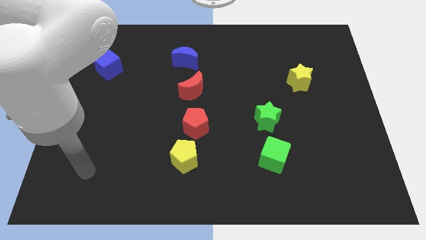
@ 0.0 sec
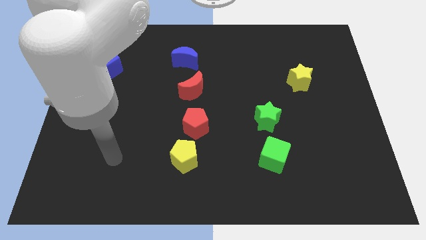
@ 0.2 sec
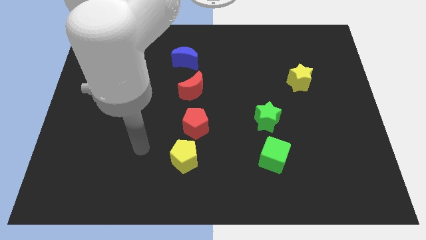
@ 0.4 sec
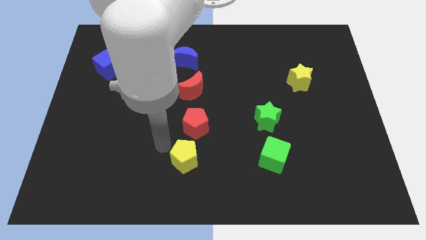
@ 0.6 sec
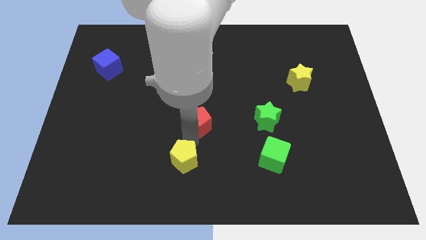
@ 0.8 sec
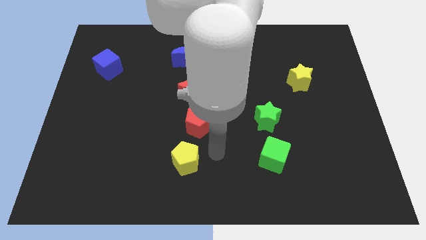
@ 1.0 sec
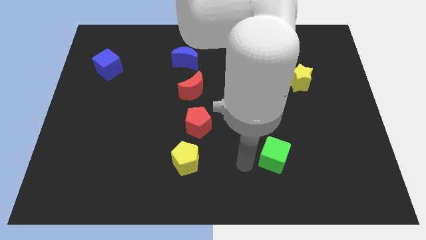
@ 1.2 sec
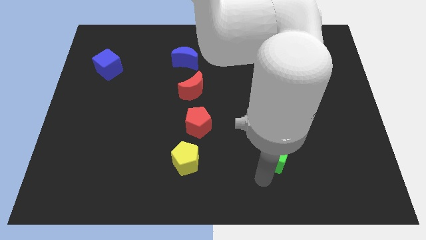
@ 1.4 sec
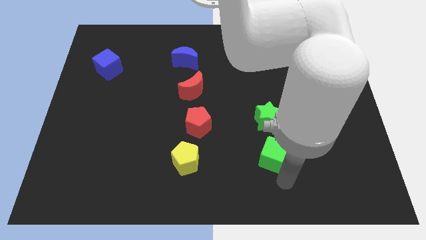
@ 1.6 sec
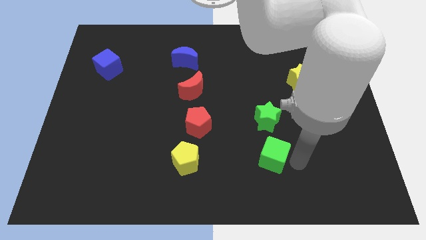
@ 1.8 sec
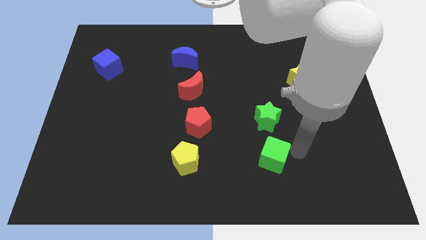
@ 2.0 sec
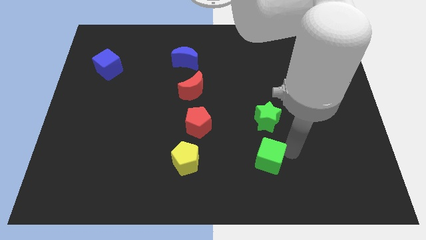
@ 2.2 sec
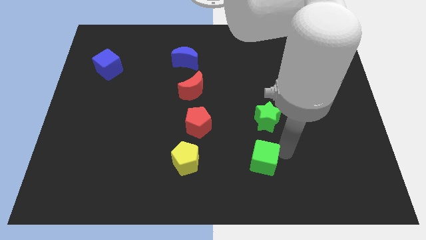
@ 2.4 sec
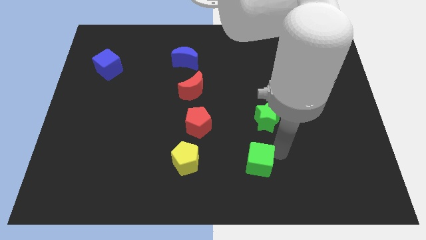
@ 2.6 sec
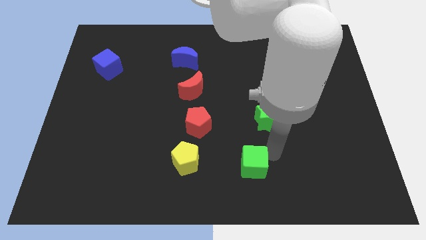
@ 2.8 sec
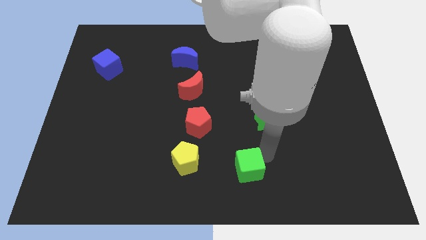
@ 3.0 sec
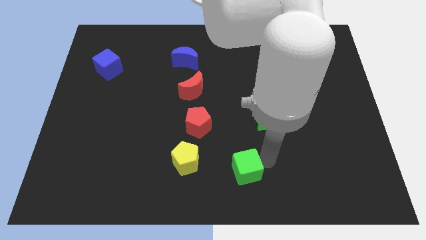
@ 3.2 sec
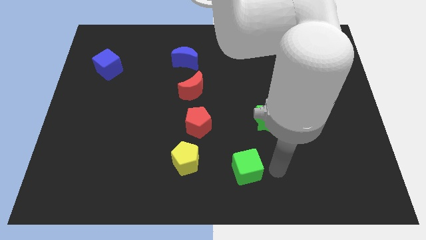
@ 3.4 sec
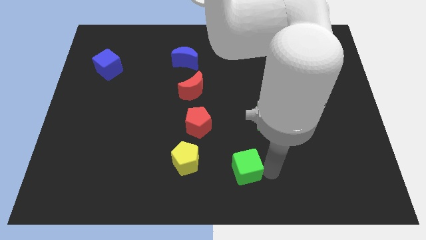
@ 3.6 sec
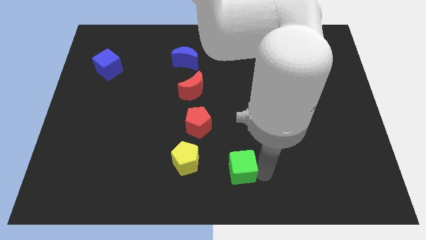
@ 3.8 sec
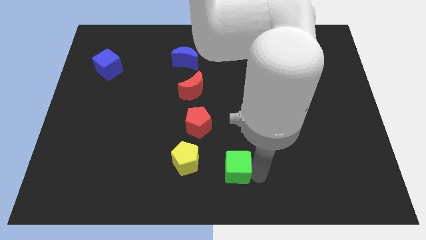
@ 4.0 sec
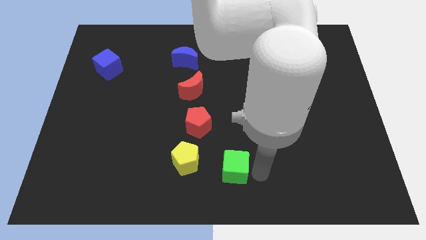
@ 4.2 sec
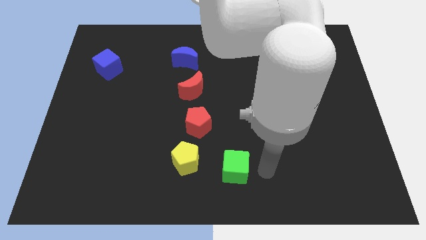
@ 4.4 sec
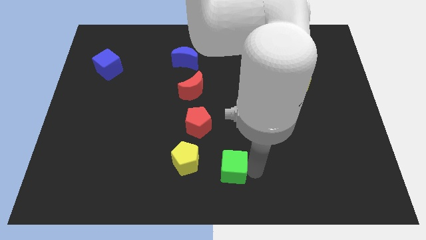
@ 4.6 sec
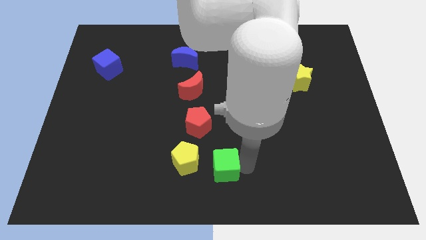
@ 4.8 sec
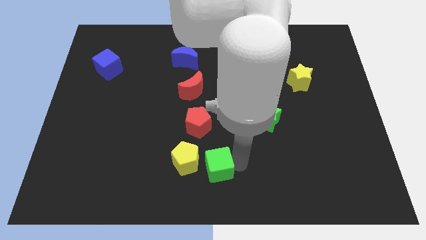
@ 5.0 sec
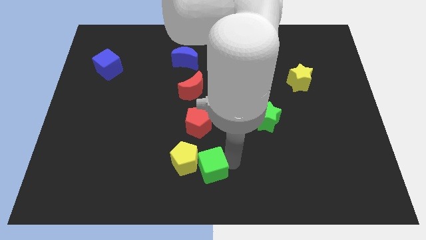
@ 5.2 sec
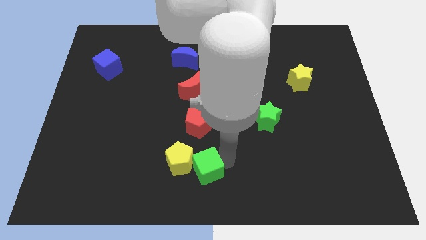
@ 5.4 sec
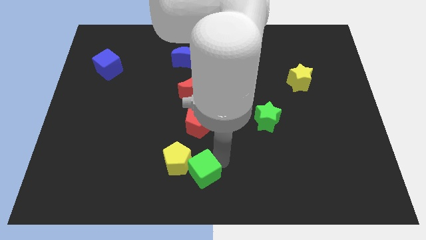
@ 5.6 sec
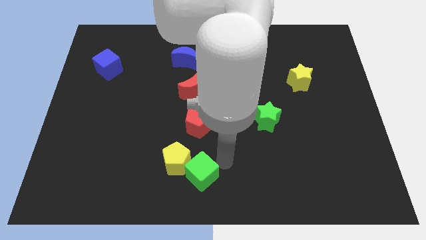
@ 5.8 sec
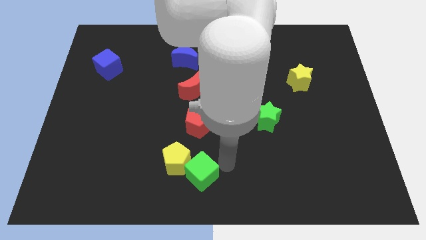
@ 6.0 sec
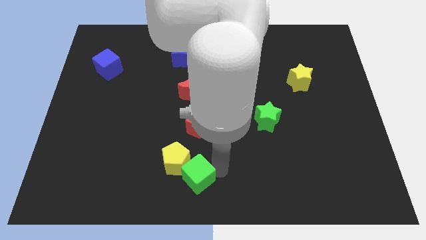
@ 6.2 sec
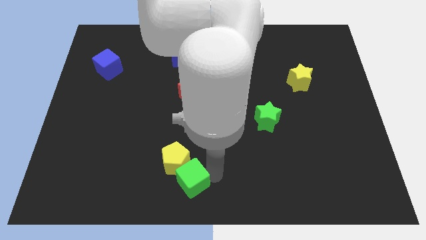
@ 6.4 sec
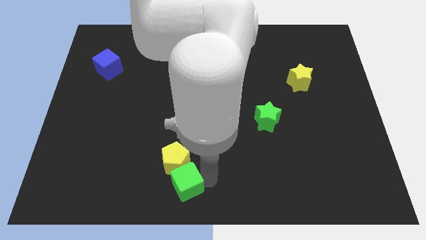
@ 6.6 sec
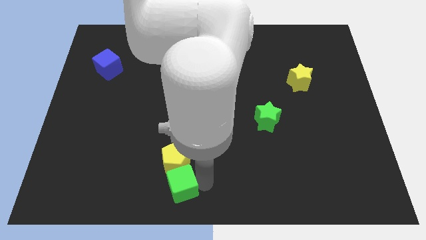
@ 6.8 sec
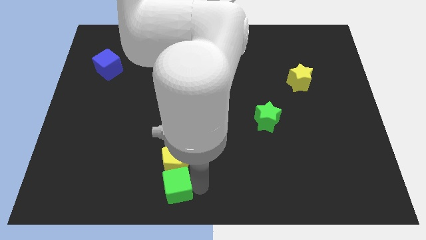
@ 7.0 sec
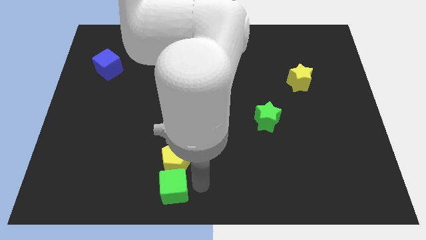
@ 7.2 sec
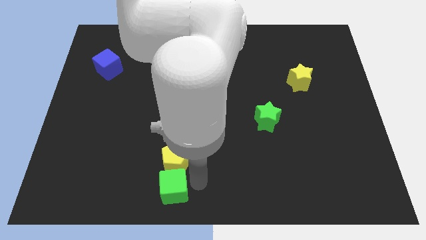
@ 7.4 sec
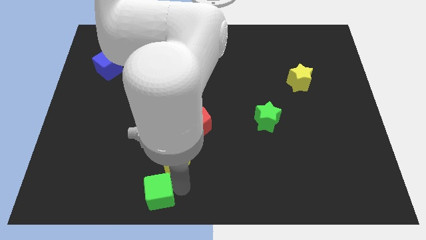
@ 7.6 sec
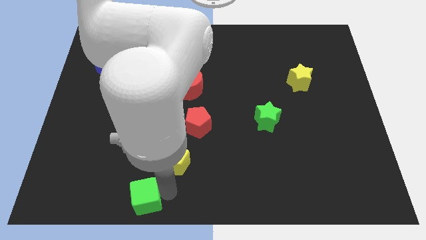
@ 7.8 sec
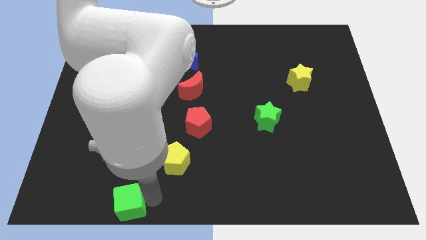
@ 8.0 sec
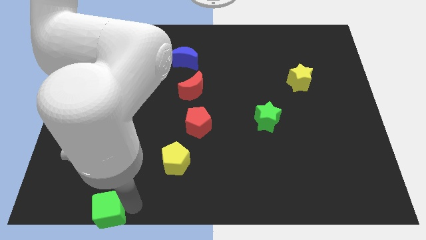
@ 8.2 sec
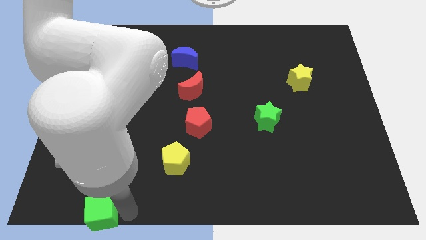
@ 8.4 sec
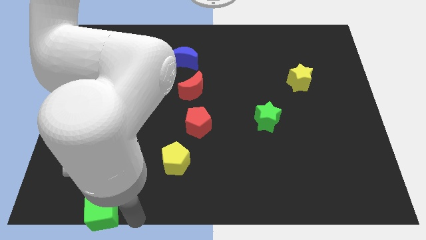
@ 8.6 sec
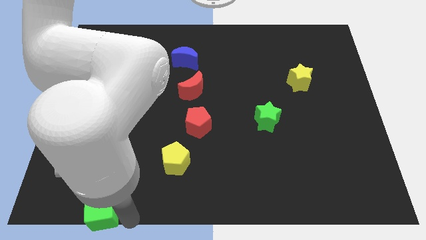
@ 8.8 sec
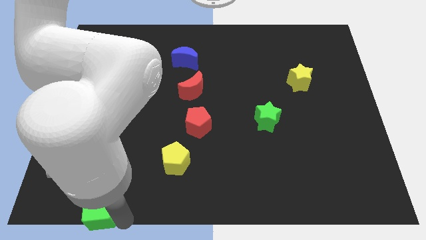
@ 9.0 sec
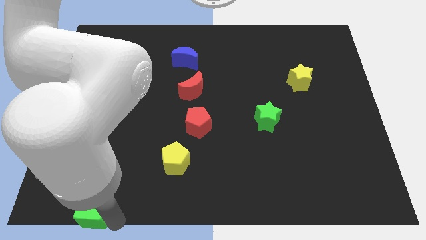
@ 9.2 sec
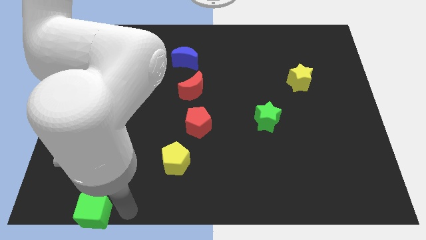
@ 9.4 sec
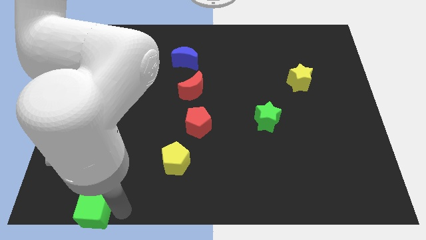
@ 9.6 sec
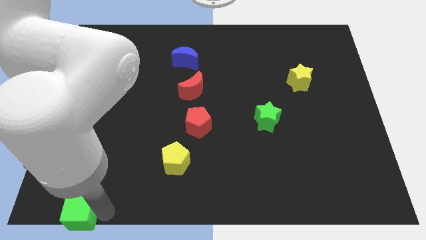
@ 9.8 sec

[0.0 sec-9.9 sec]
put the green cube to the lower left corner

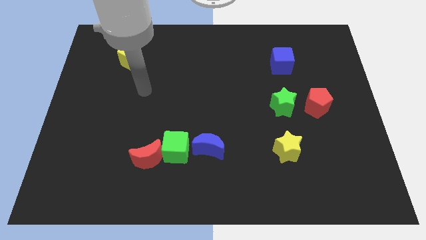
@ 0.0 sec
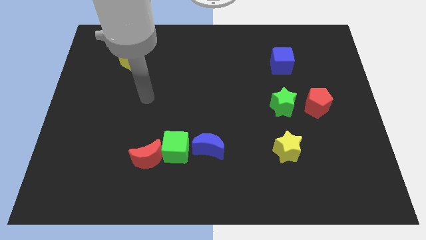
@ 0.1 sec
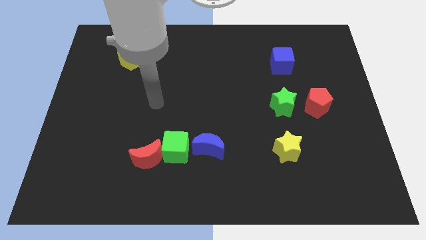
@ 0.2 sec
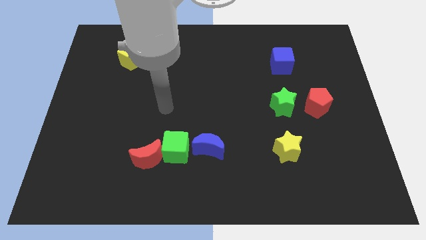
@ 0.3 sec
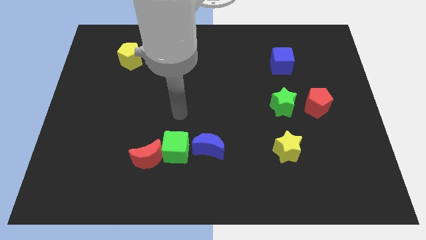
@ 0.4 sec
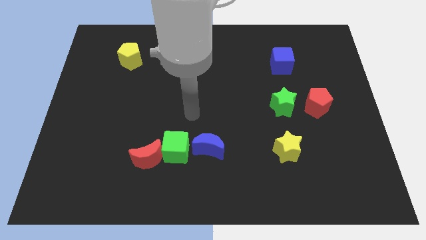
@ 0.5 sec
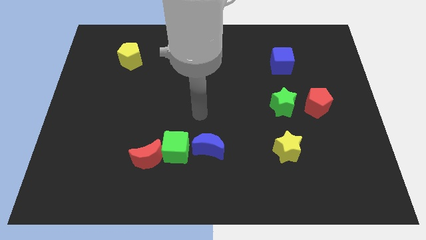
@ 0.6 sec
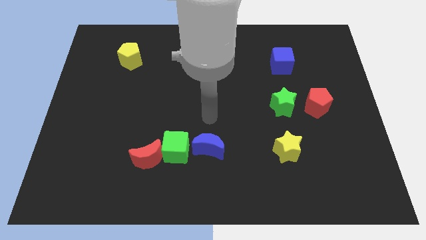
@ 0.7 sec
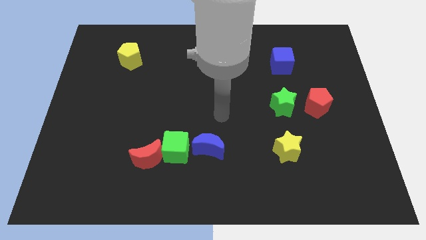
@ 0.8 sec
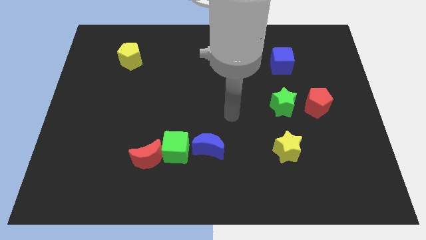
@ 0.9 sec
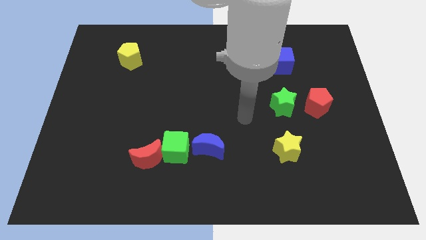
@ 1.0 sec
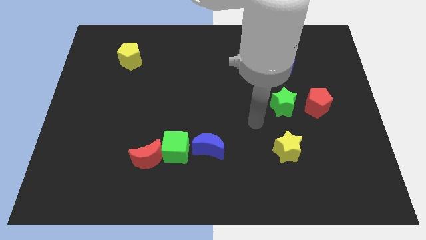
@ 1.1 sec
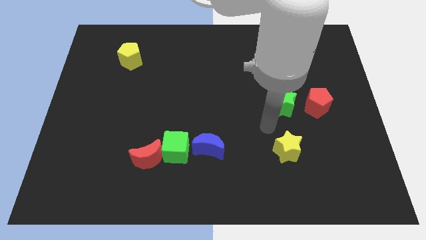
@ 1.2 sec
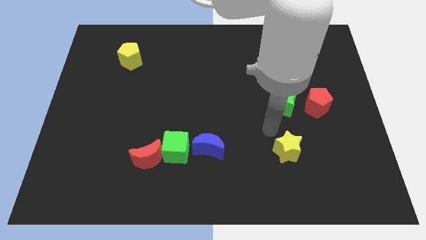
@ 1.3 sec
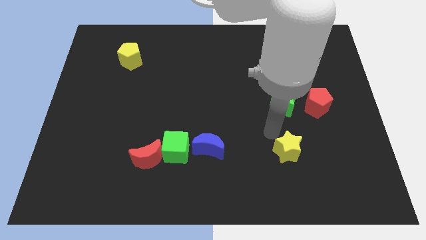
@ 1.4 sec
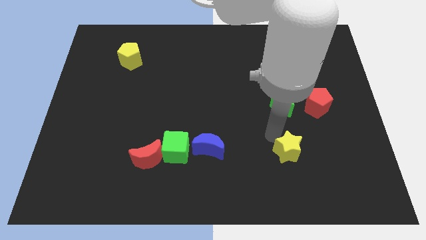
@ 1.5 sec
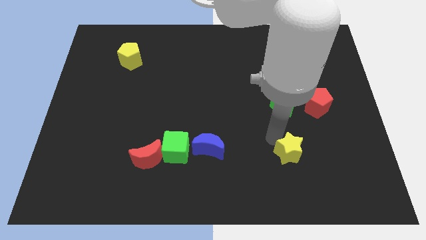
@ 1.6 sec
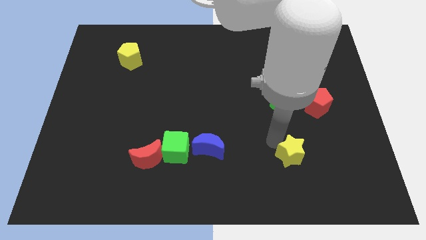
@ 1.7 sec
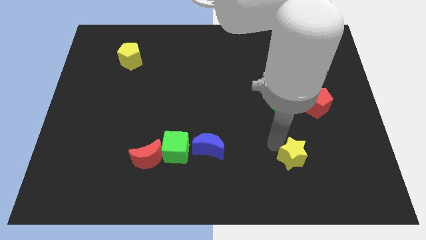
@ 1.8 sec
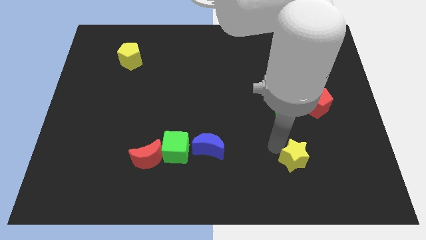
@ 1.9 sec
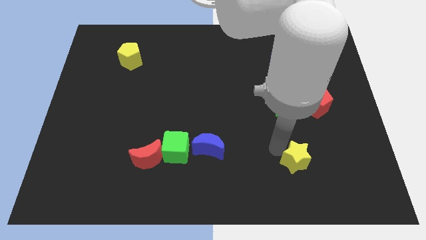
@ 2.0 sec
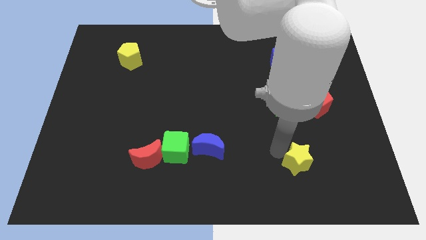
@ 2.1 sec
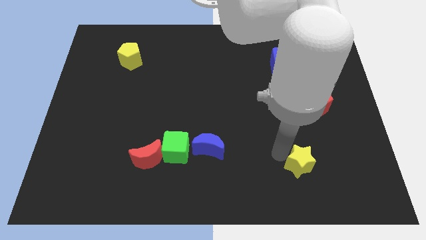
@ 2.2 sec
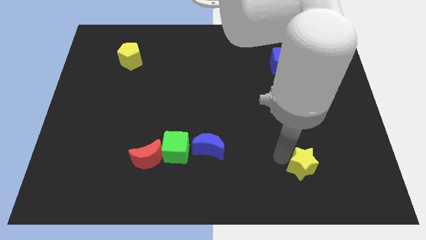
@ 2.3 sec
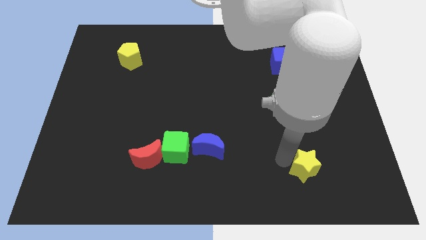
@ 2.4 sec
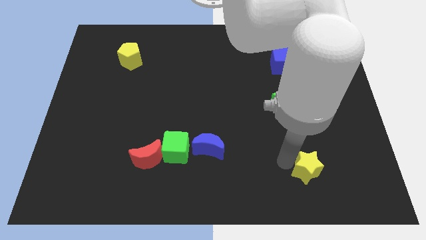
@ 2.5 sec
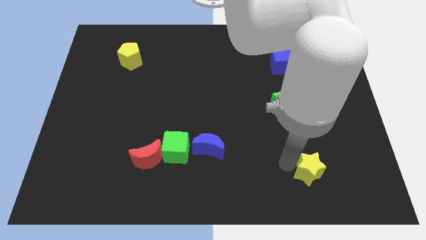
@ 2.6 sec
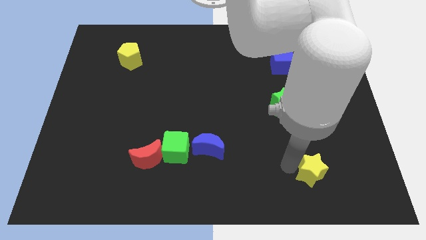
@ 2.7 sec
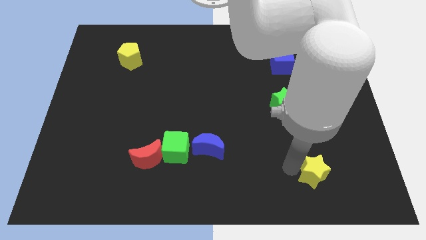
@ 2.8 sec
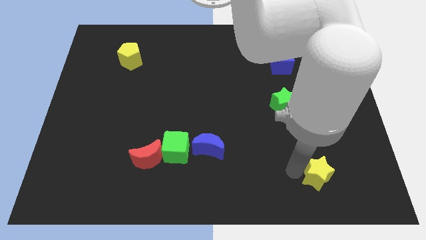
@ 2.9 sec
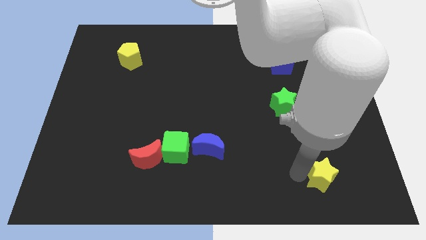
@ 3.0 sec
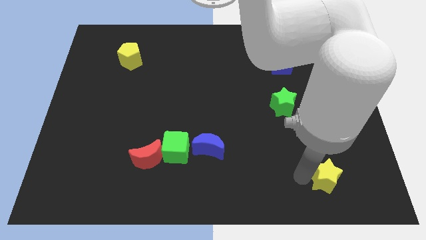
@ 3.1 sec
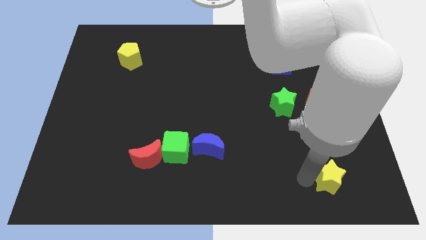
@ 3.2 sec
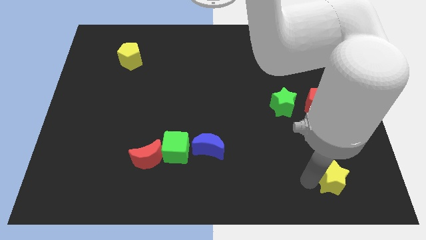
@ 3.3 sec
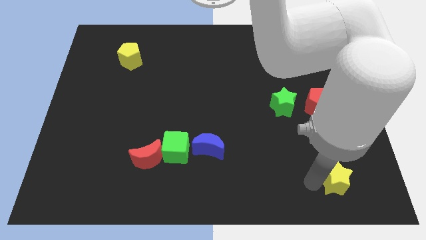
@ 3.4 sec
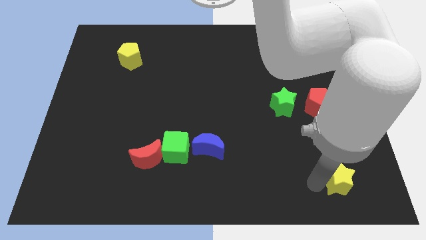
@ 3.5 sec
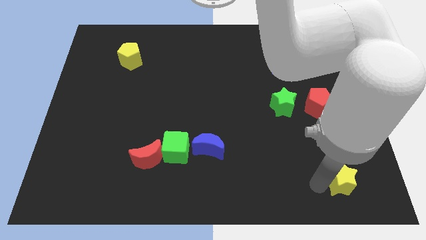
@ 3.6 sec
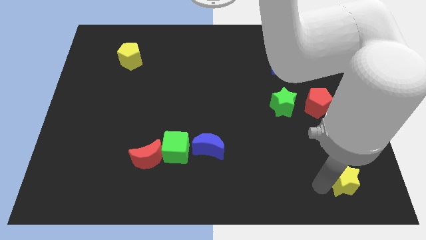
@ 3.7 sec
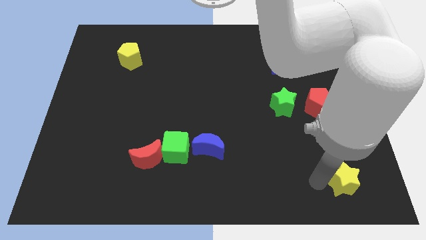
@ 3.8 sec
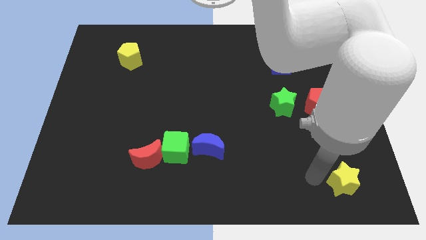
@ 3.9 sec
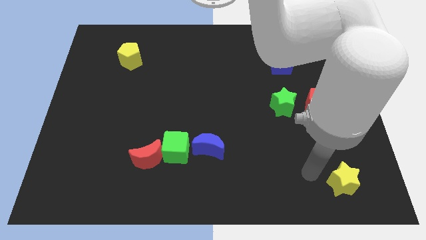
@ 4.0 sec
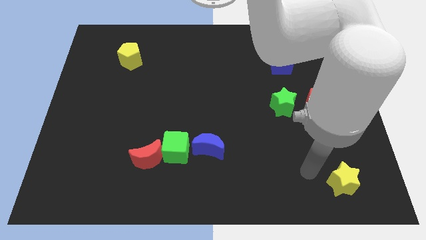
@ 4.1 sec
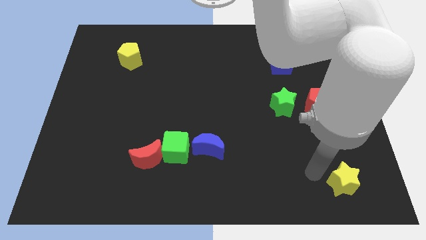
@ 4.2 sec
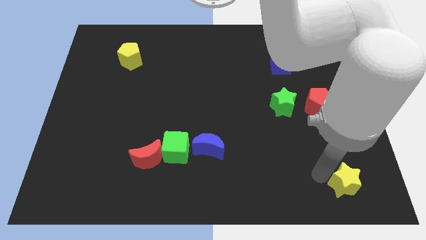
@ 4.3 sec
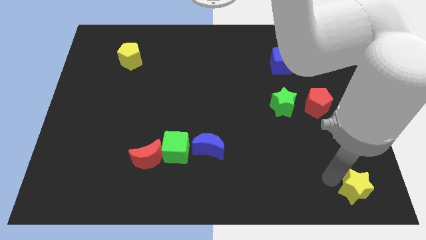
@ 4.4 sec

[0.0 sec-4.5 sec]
push the yellow star to the bottom right
